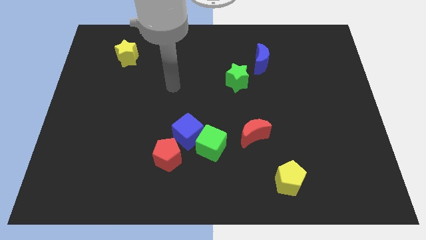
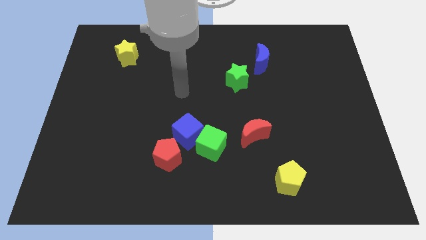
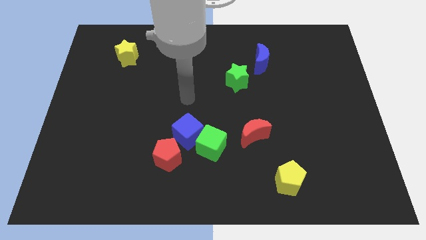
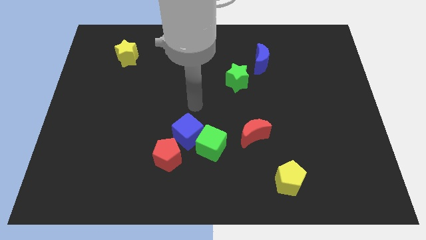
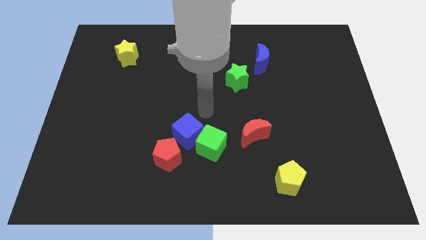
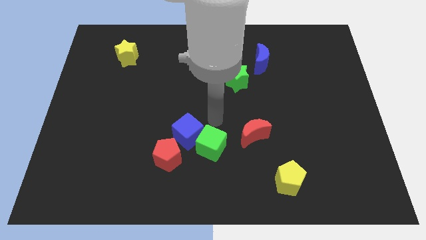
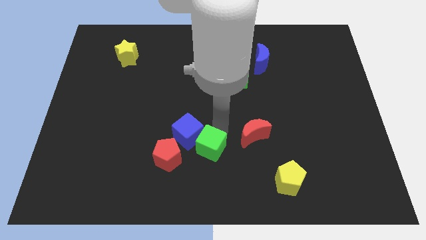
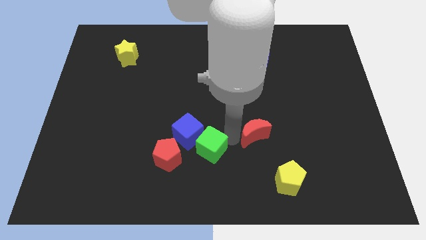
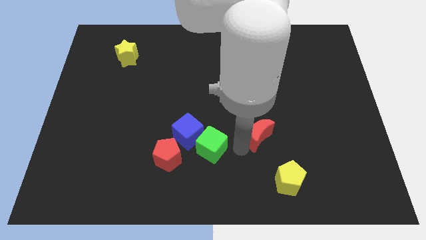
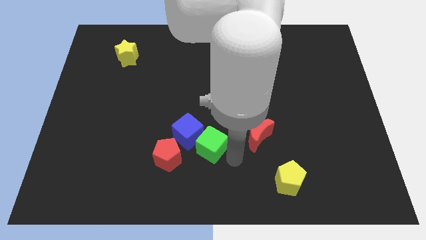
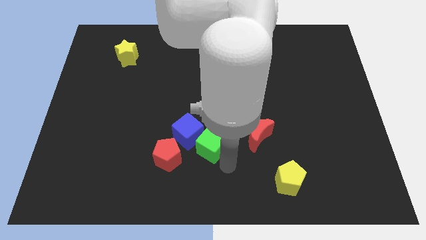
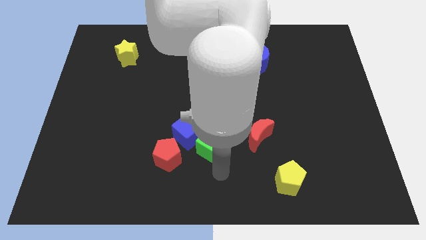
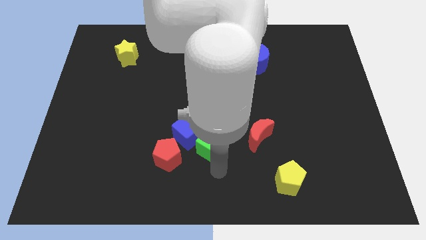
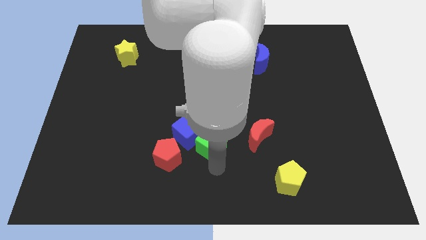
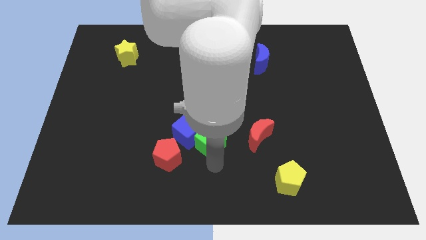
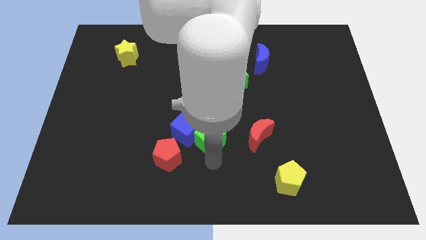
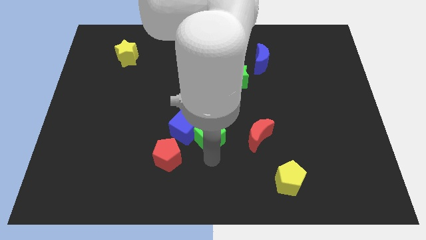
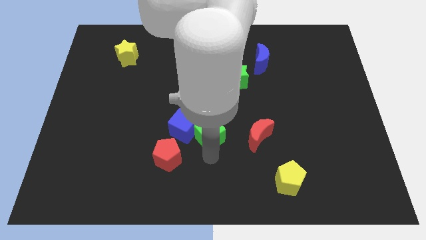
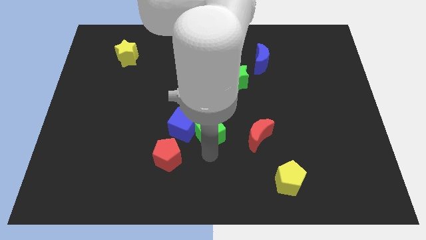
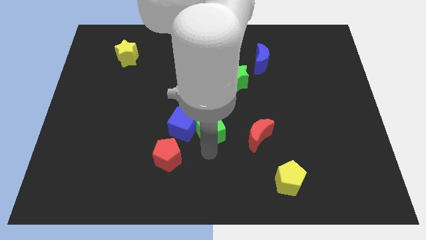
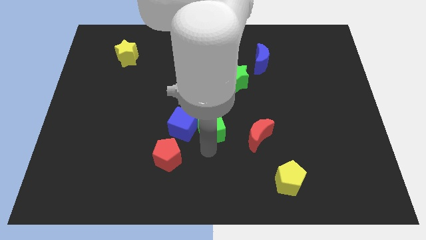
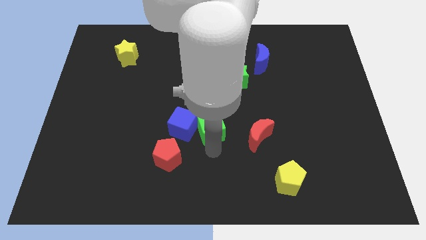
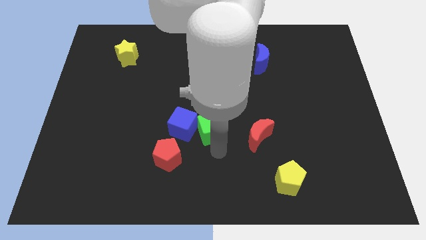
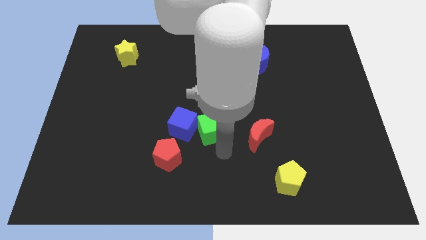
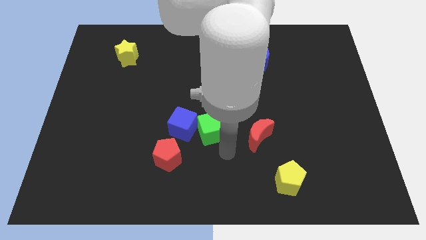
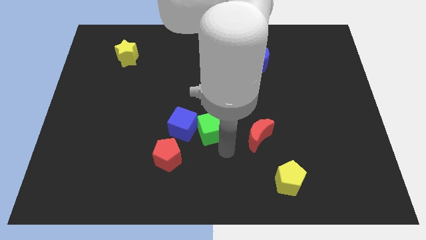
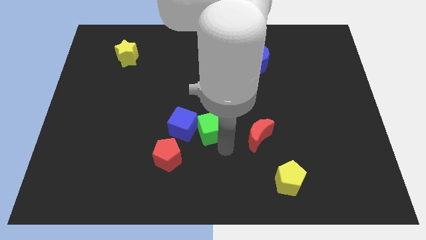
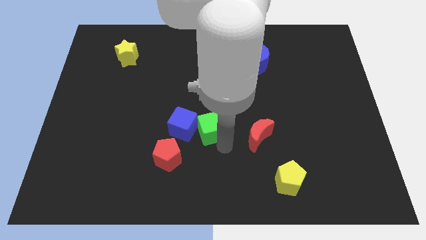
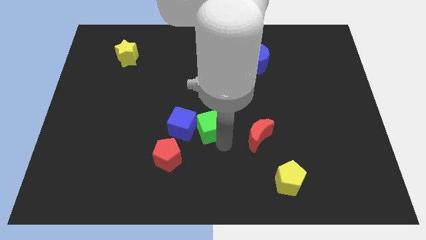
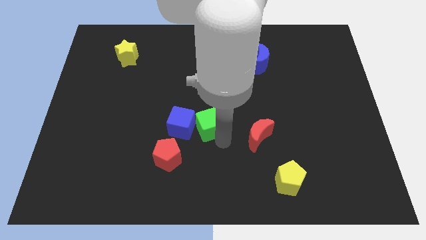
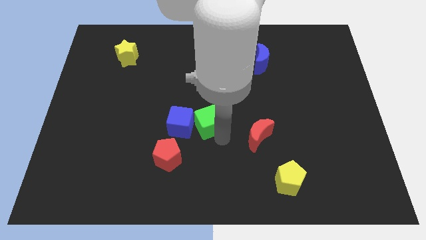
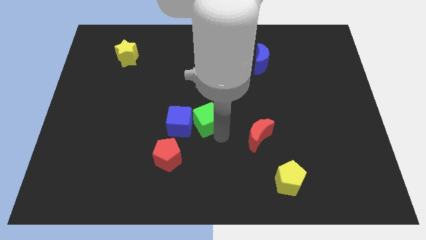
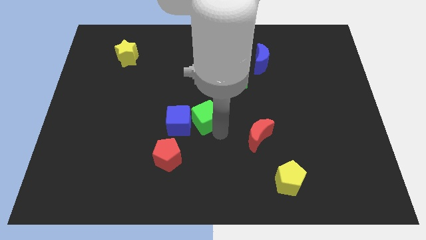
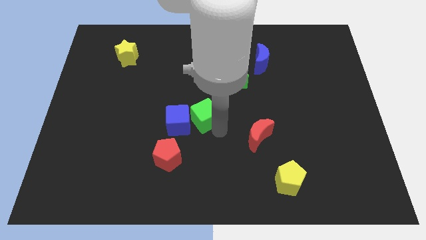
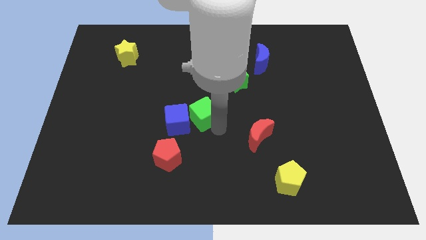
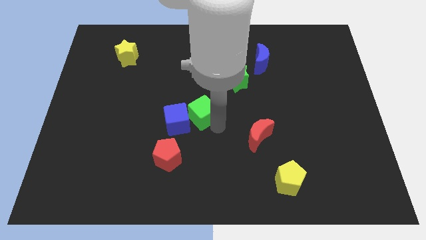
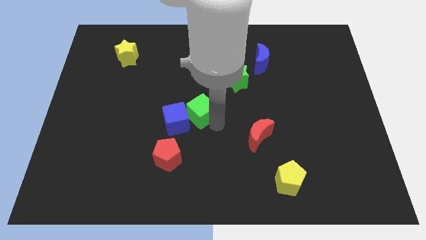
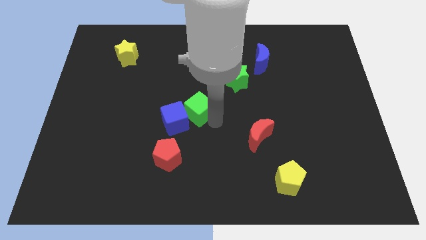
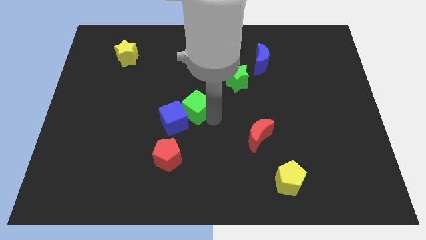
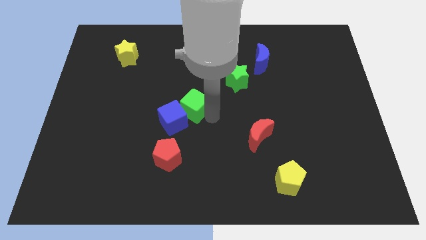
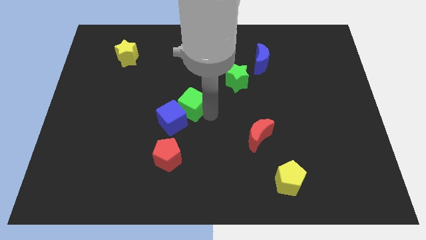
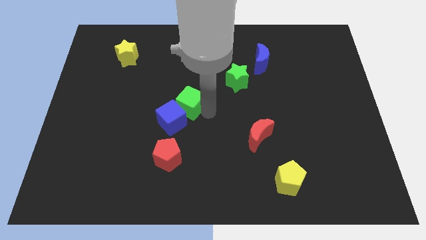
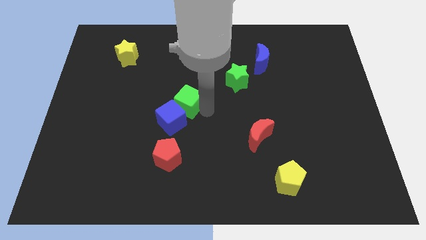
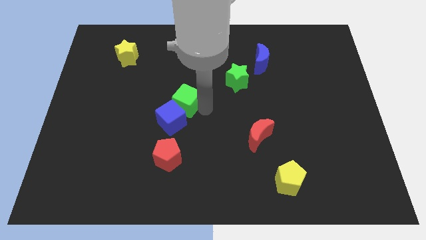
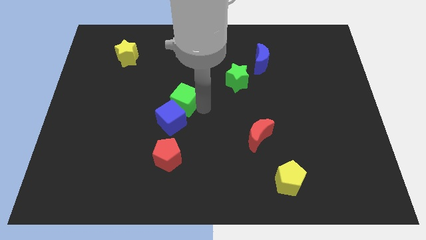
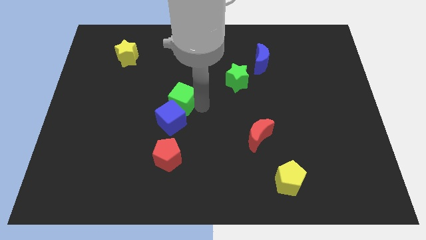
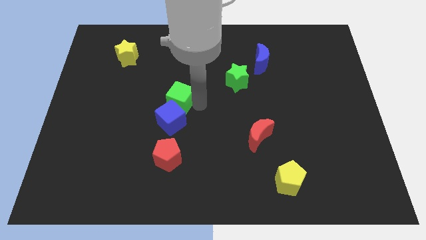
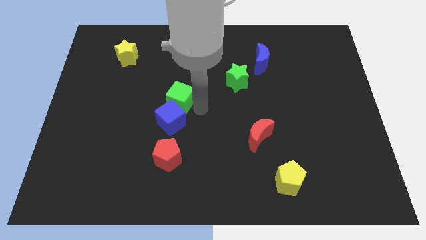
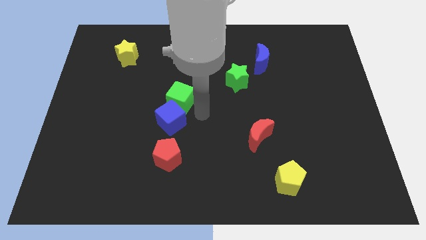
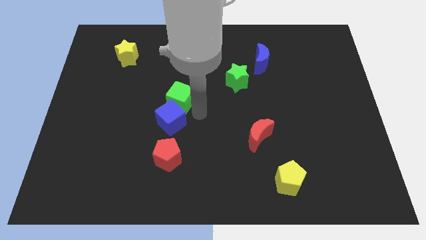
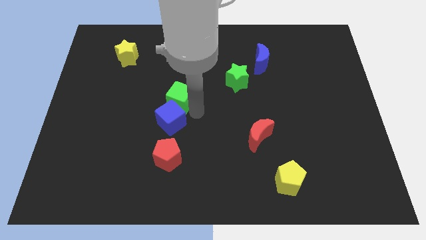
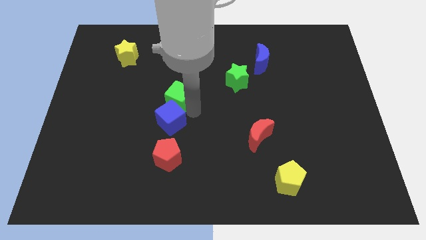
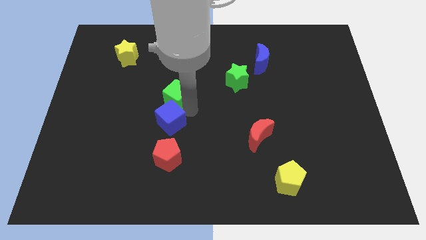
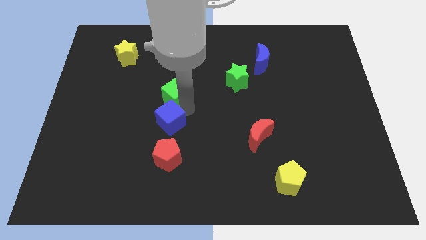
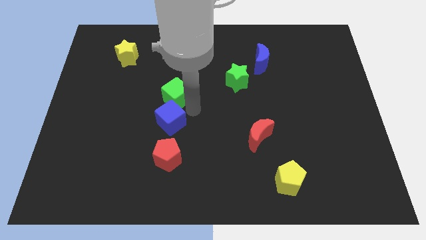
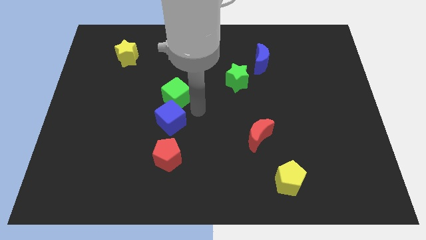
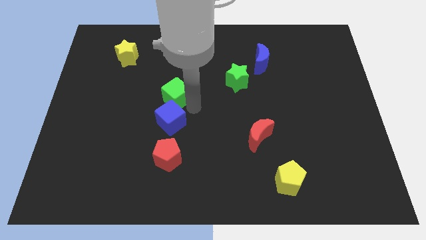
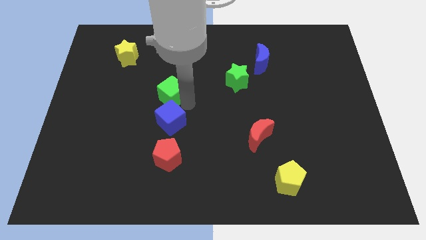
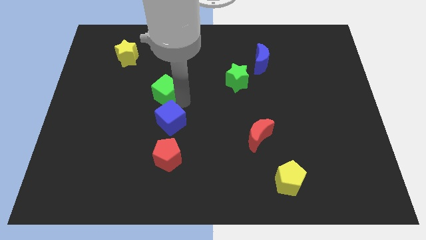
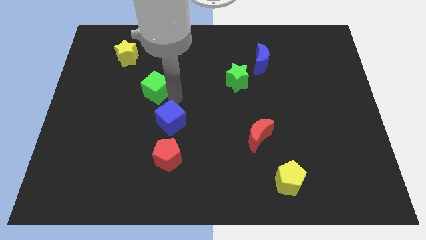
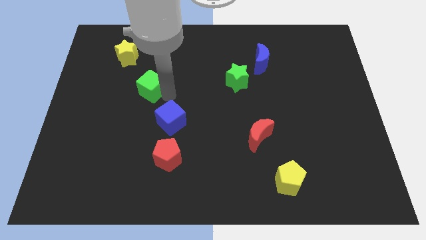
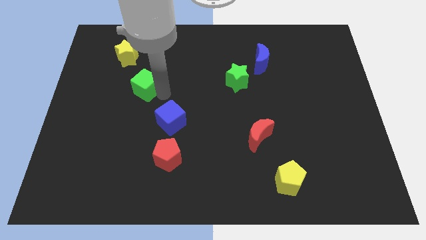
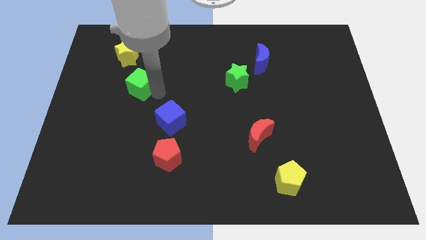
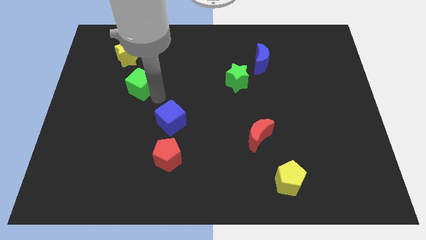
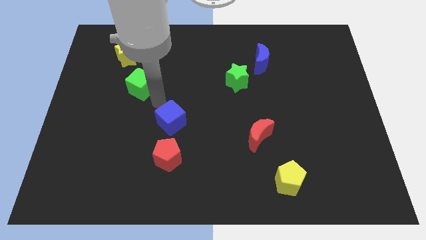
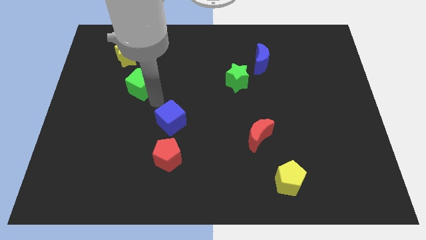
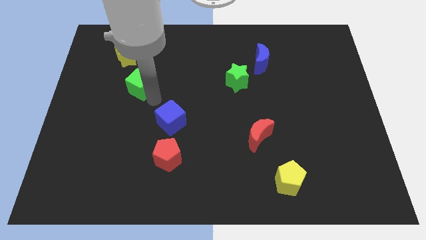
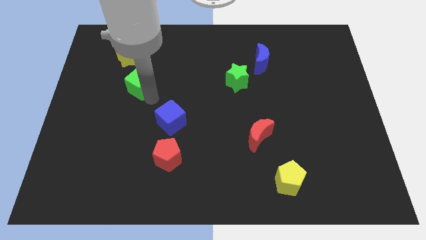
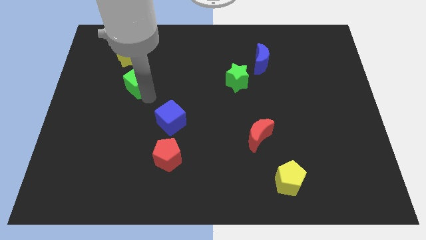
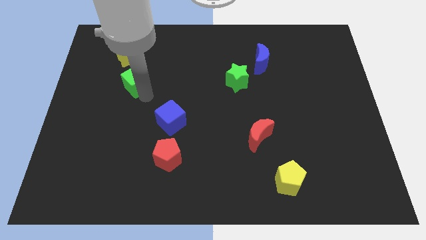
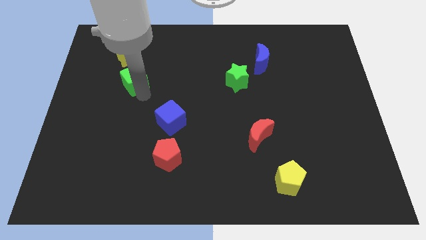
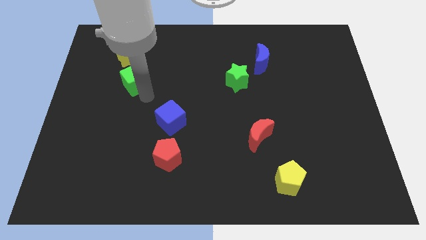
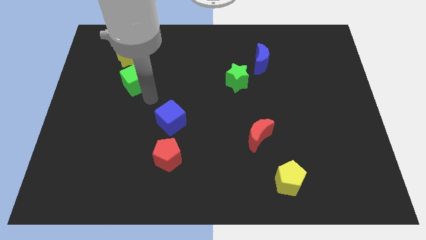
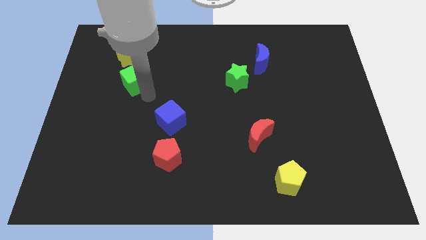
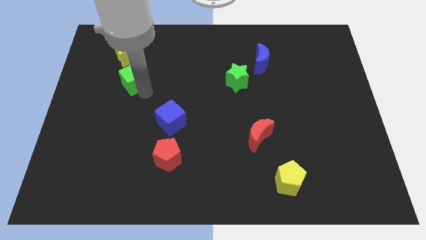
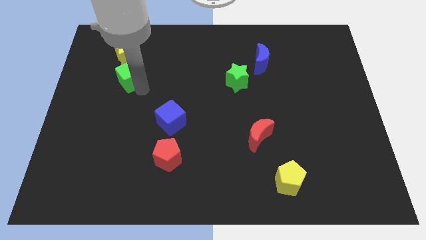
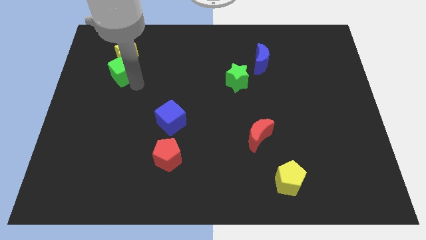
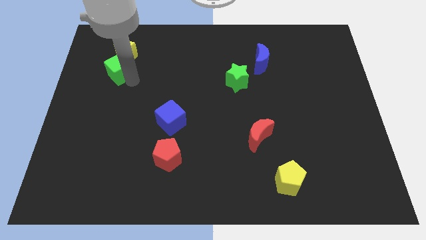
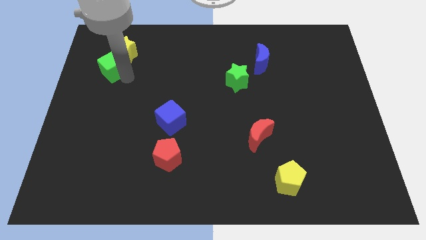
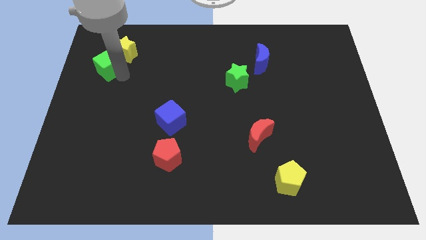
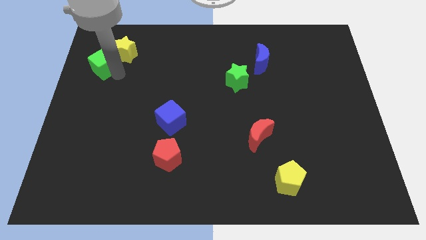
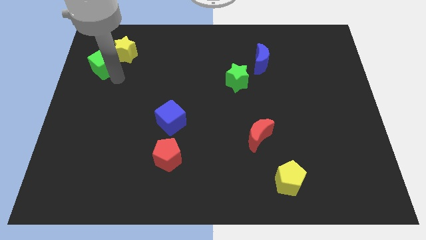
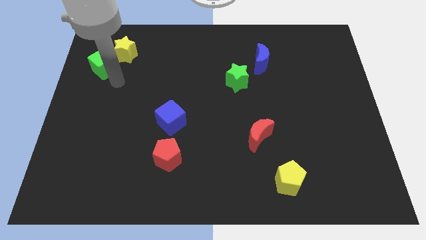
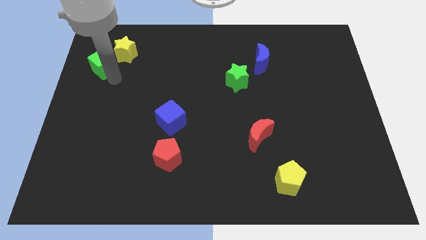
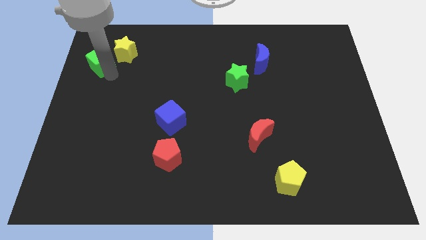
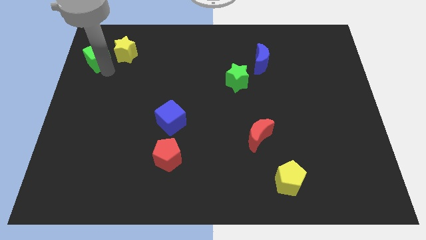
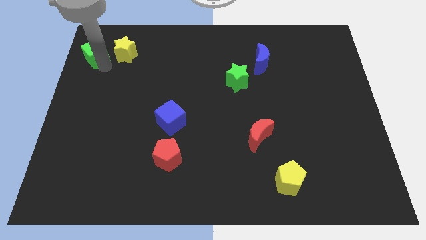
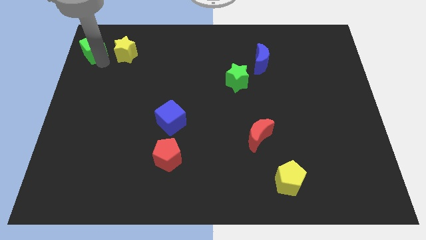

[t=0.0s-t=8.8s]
move the green cube to the top left
